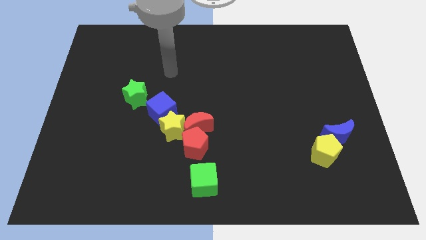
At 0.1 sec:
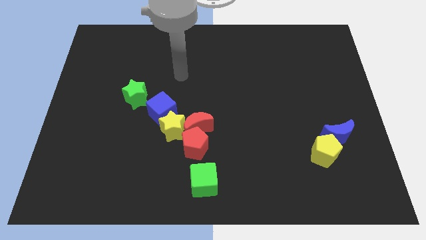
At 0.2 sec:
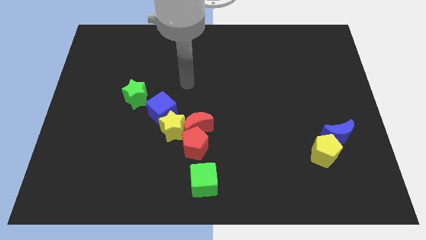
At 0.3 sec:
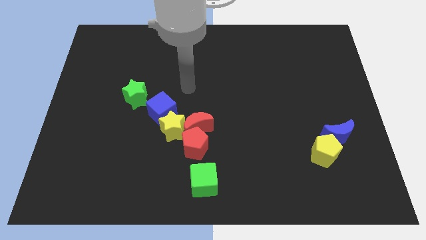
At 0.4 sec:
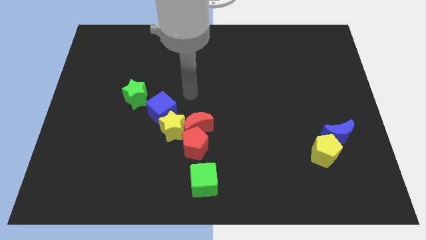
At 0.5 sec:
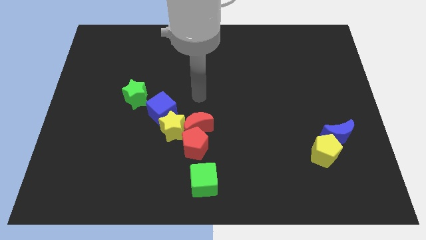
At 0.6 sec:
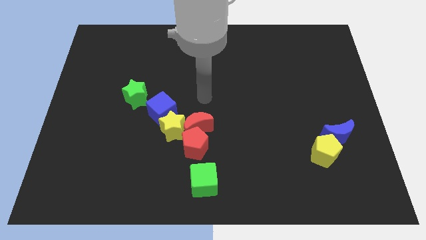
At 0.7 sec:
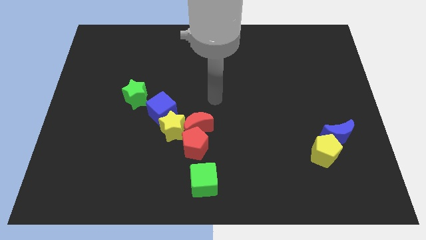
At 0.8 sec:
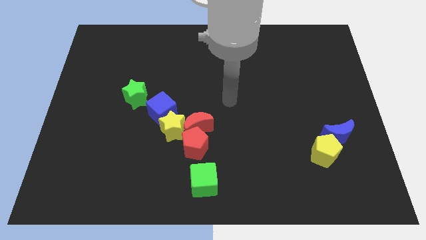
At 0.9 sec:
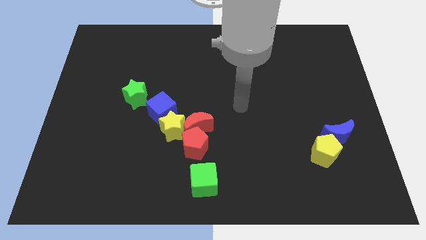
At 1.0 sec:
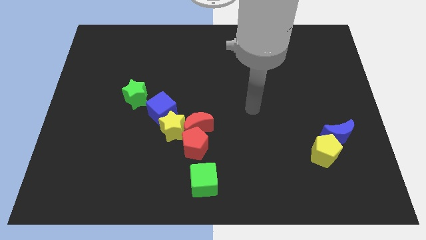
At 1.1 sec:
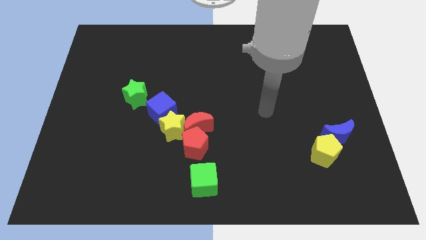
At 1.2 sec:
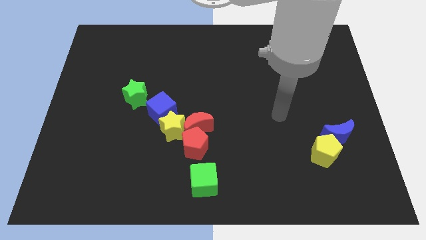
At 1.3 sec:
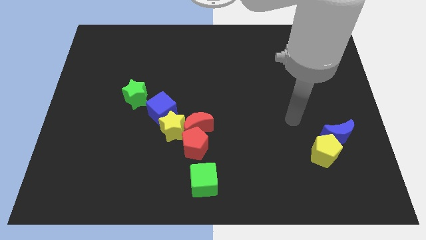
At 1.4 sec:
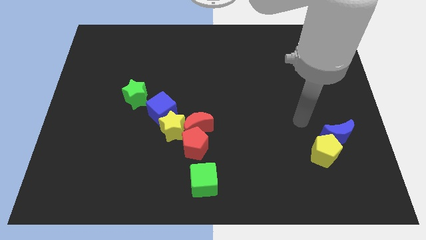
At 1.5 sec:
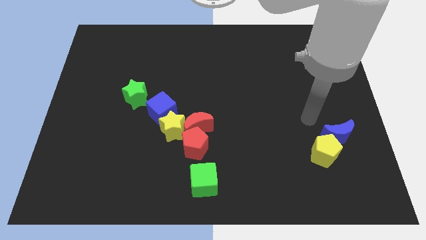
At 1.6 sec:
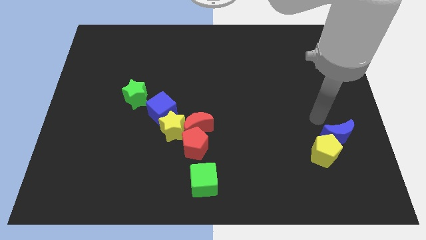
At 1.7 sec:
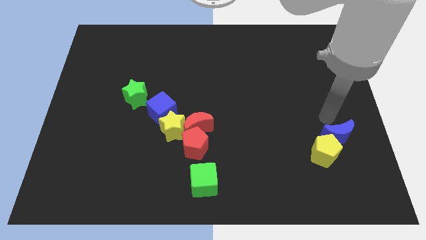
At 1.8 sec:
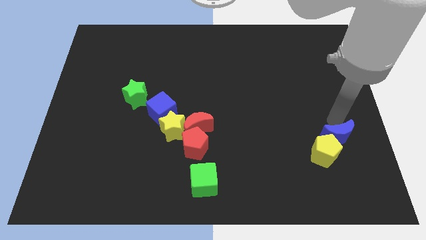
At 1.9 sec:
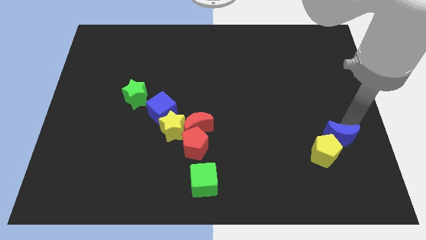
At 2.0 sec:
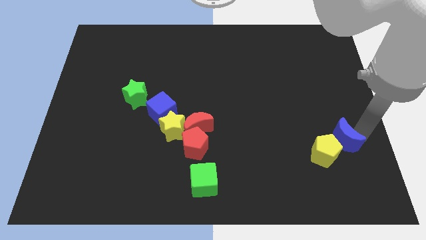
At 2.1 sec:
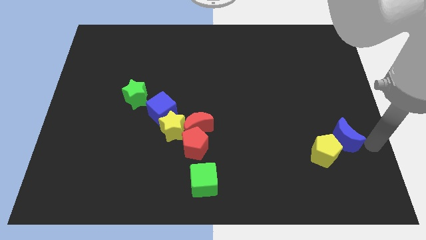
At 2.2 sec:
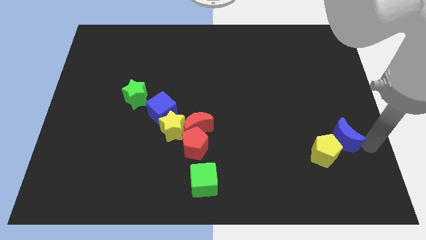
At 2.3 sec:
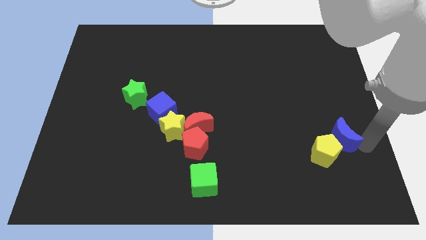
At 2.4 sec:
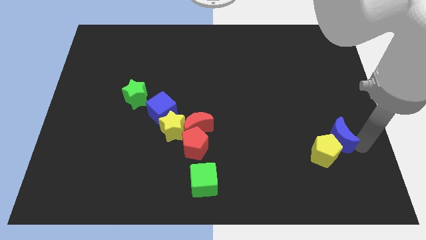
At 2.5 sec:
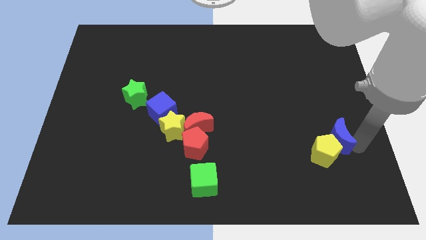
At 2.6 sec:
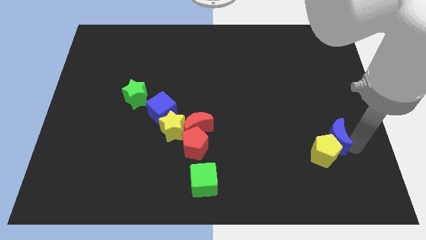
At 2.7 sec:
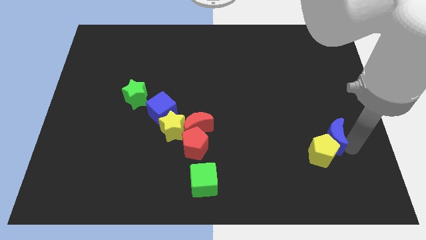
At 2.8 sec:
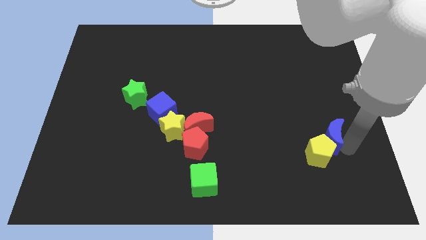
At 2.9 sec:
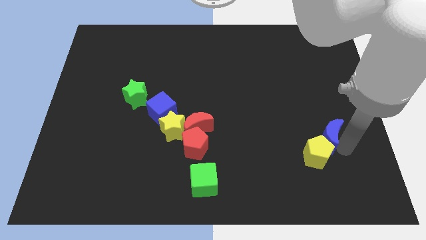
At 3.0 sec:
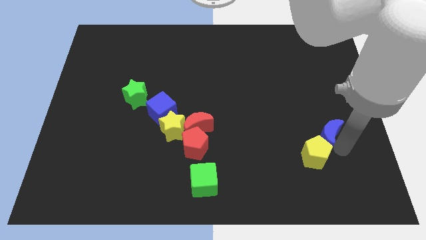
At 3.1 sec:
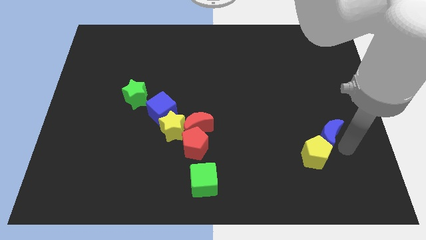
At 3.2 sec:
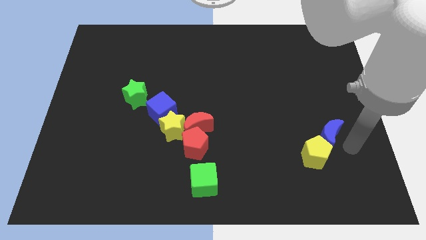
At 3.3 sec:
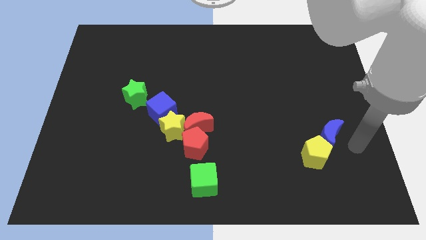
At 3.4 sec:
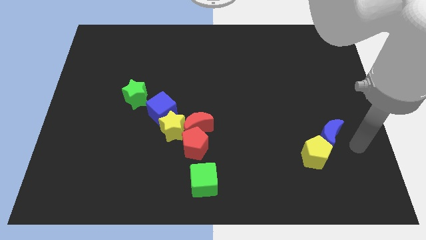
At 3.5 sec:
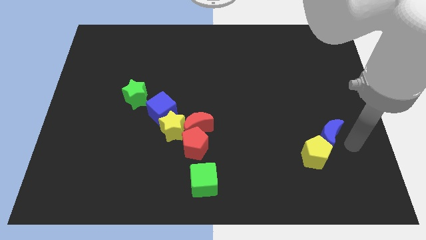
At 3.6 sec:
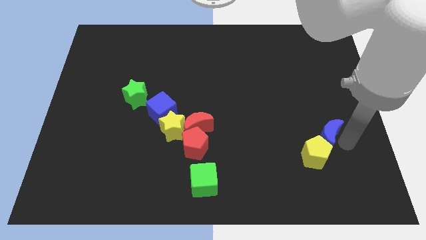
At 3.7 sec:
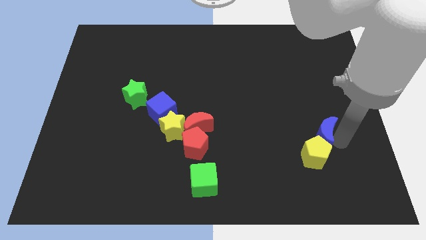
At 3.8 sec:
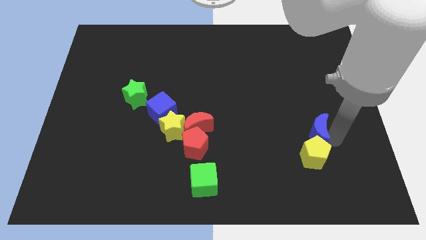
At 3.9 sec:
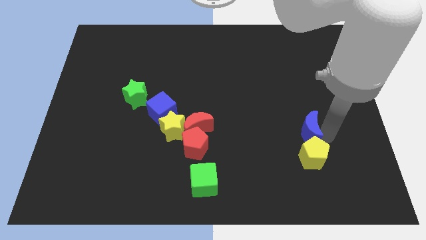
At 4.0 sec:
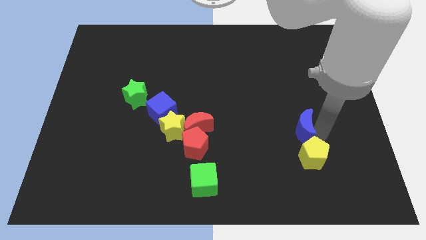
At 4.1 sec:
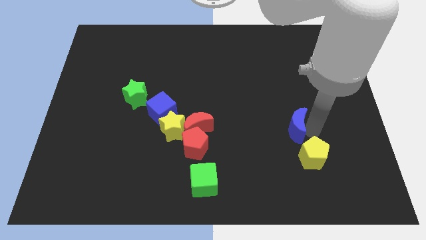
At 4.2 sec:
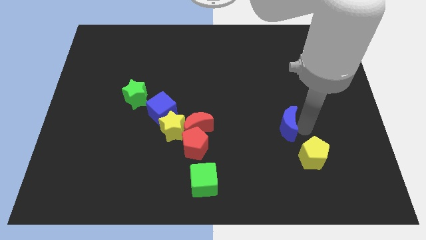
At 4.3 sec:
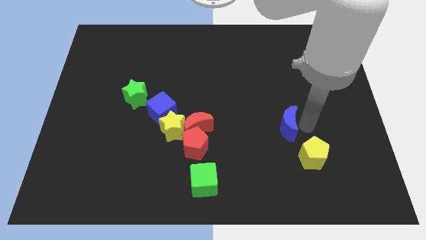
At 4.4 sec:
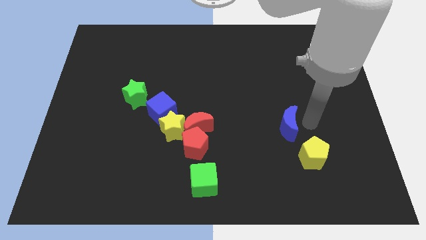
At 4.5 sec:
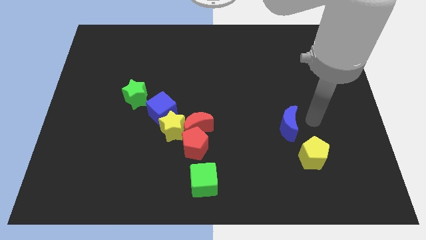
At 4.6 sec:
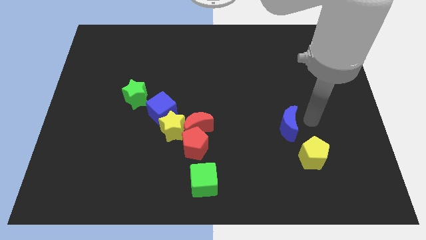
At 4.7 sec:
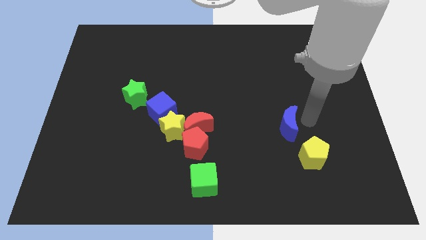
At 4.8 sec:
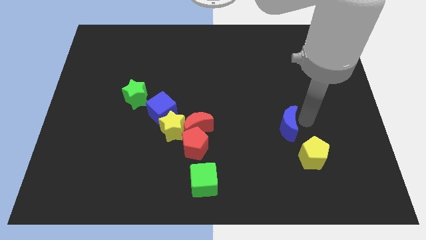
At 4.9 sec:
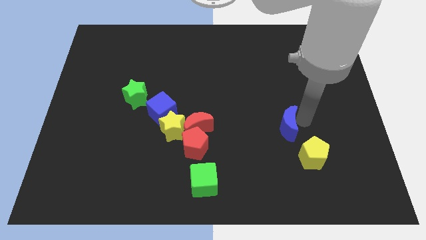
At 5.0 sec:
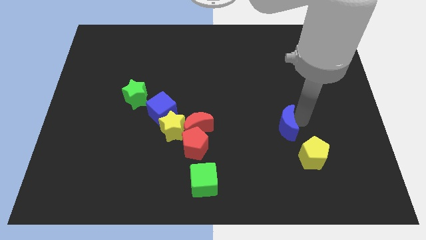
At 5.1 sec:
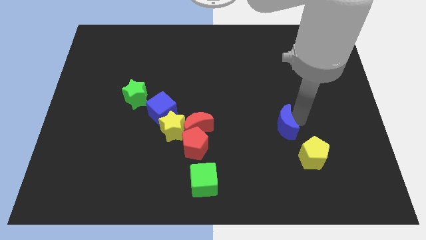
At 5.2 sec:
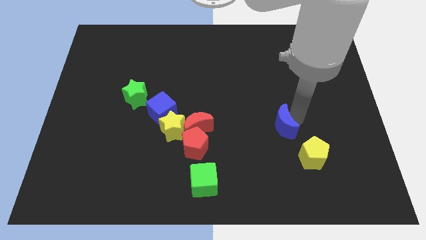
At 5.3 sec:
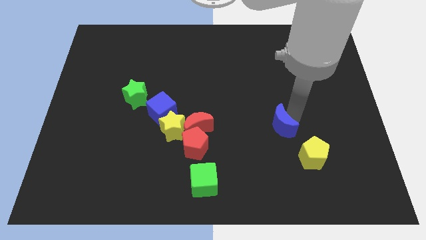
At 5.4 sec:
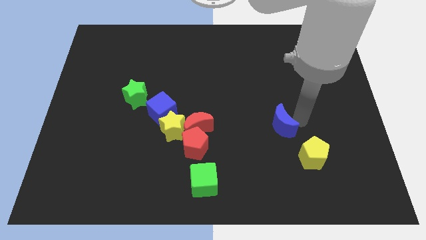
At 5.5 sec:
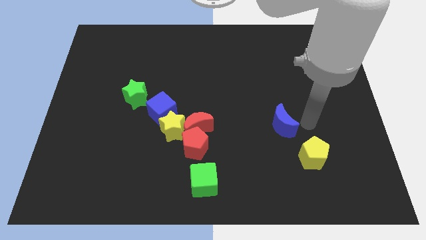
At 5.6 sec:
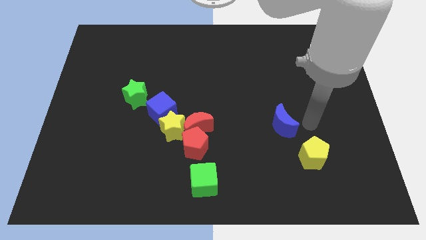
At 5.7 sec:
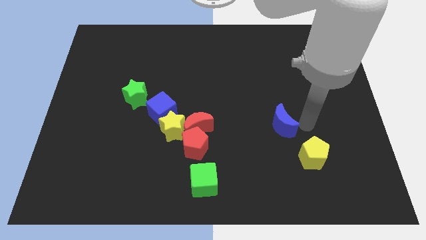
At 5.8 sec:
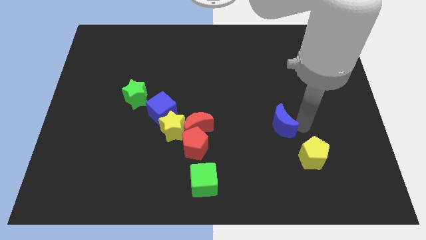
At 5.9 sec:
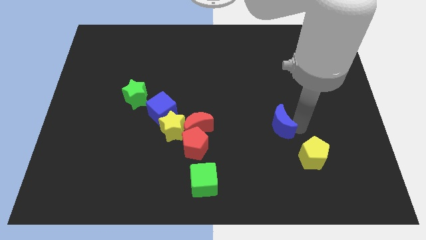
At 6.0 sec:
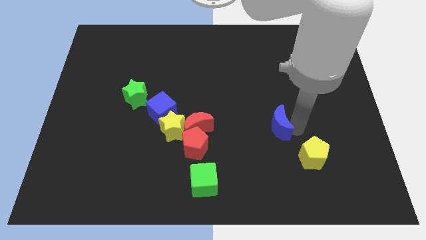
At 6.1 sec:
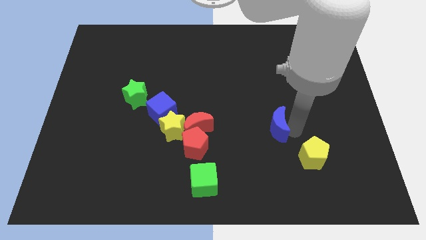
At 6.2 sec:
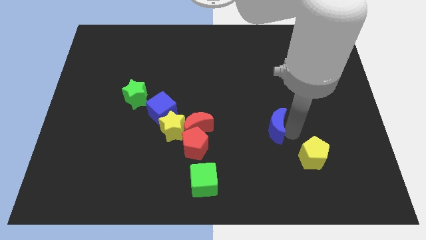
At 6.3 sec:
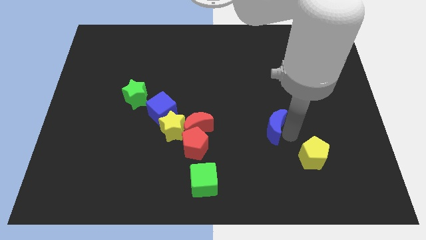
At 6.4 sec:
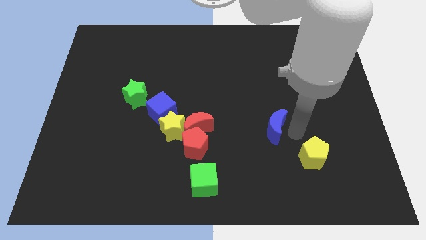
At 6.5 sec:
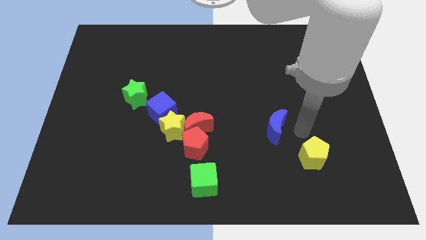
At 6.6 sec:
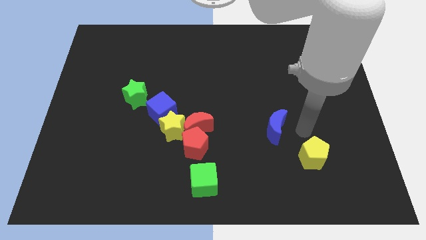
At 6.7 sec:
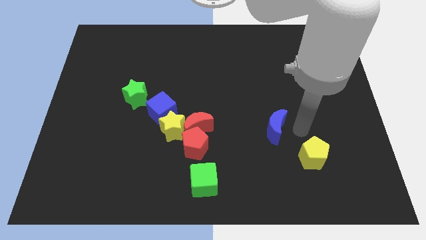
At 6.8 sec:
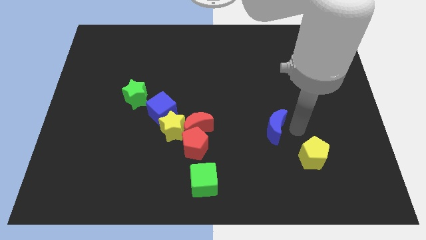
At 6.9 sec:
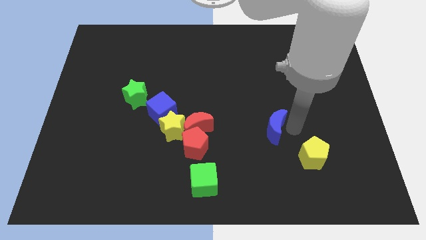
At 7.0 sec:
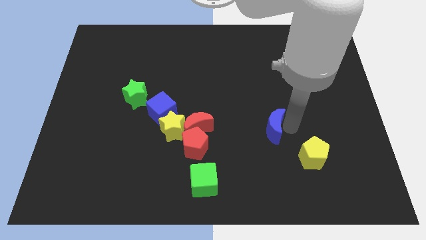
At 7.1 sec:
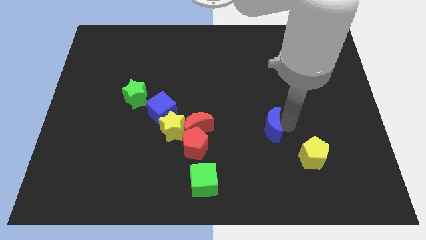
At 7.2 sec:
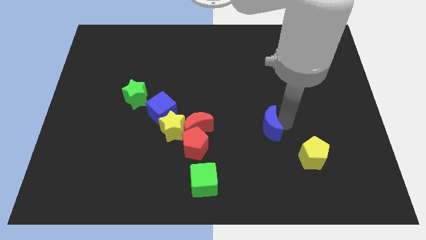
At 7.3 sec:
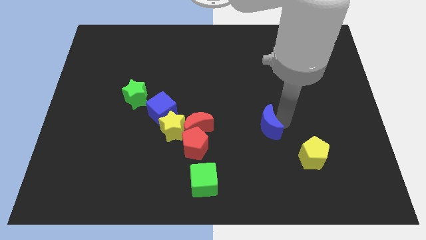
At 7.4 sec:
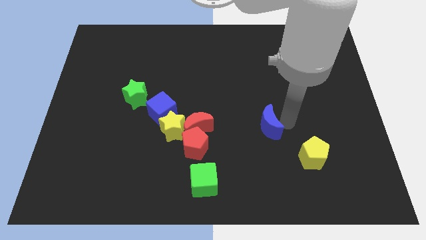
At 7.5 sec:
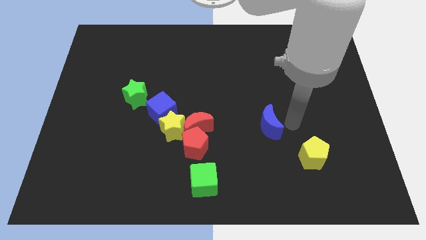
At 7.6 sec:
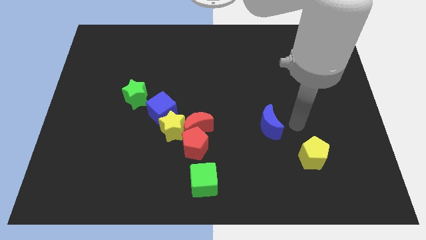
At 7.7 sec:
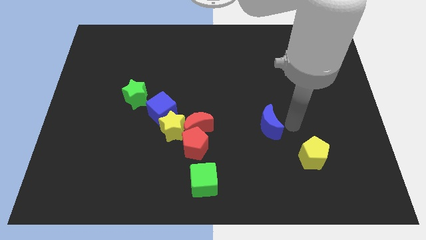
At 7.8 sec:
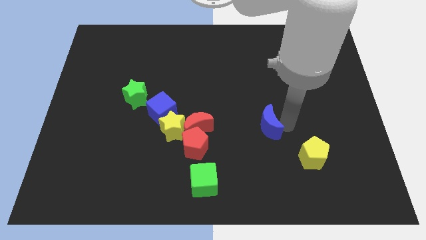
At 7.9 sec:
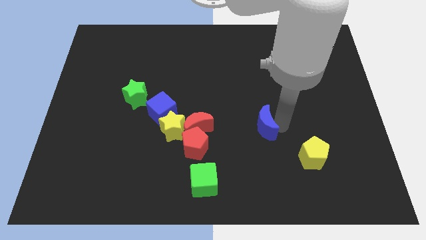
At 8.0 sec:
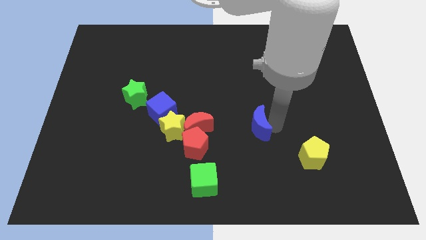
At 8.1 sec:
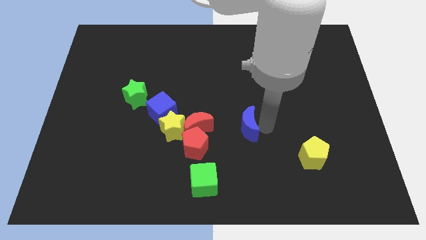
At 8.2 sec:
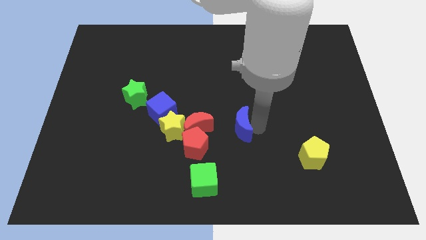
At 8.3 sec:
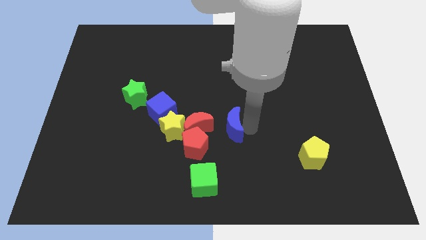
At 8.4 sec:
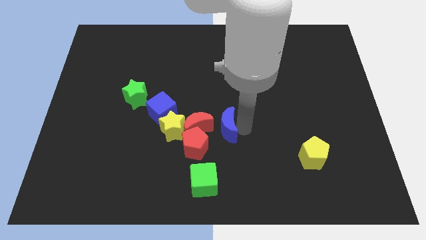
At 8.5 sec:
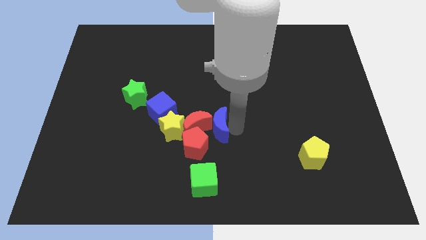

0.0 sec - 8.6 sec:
move the blue moon next to the red moon
